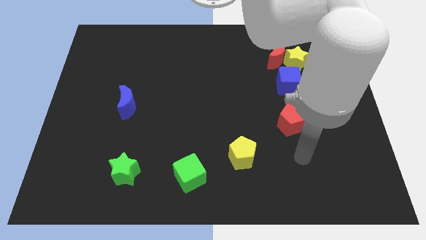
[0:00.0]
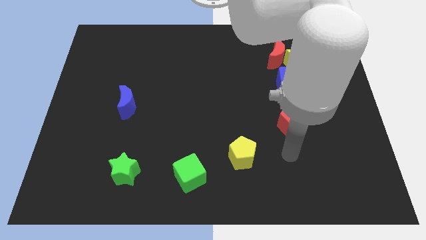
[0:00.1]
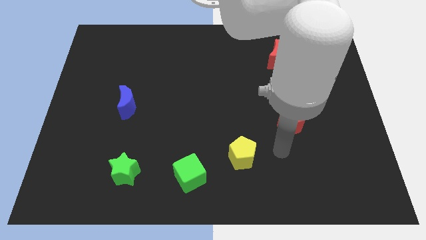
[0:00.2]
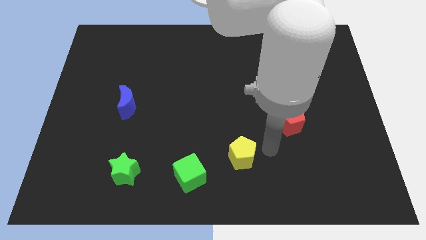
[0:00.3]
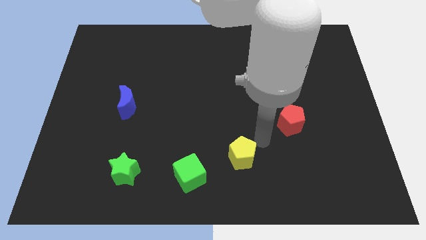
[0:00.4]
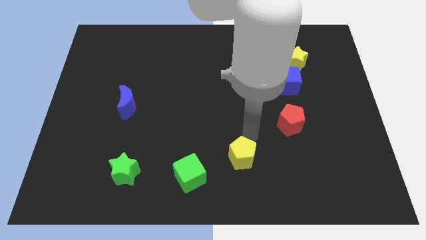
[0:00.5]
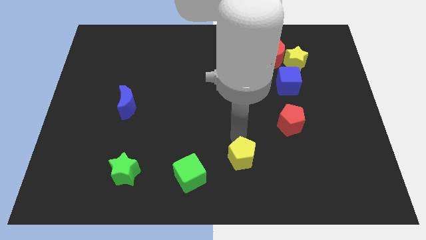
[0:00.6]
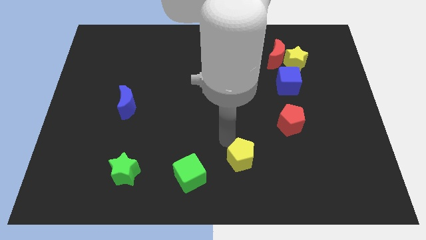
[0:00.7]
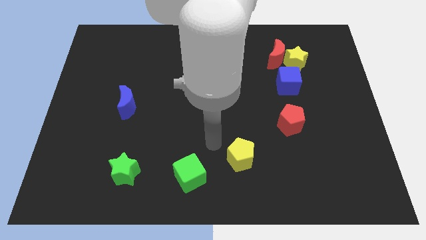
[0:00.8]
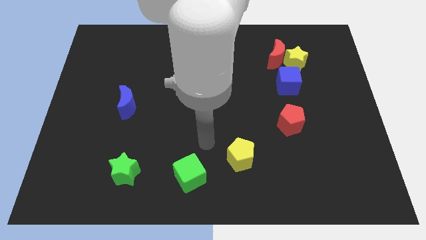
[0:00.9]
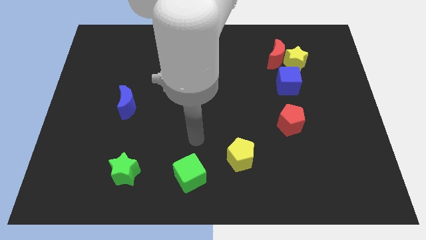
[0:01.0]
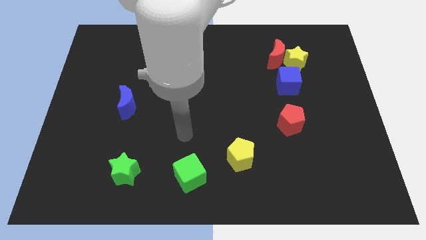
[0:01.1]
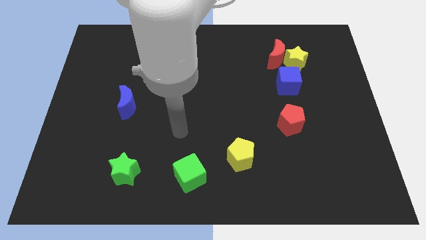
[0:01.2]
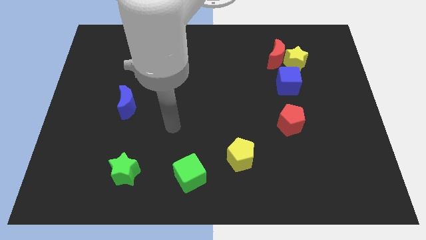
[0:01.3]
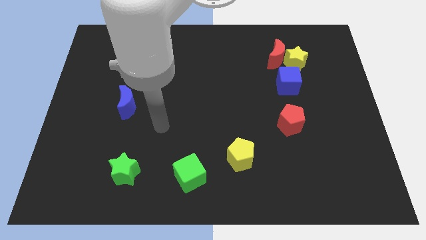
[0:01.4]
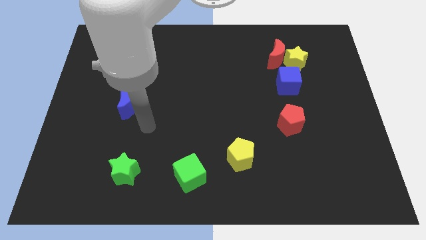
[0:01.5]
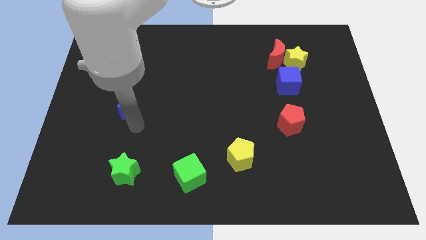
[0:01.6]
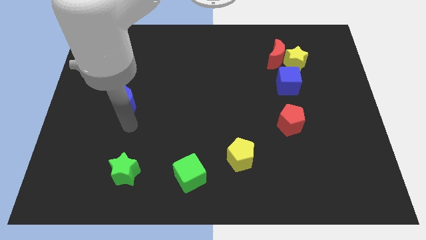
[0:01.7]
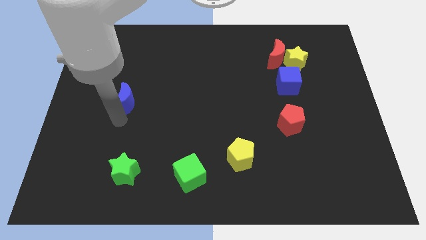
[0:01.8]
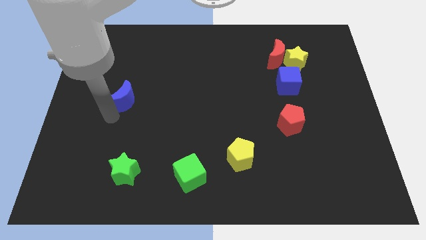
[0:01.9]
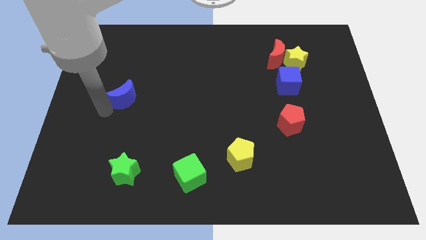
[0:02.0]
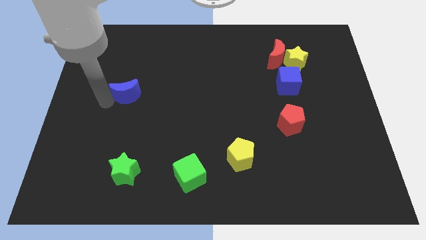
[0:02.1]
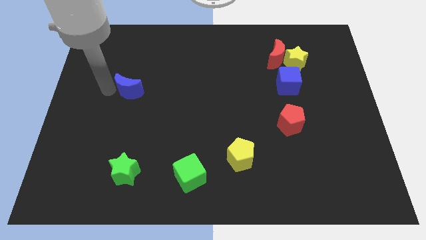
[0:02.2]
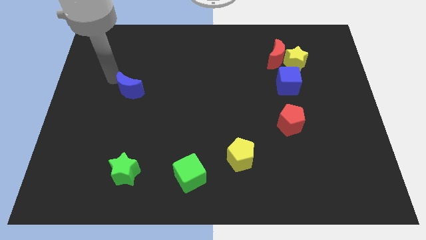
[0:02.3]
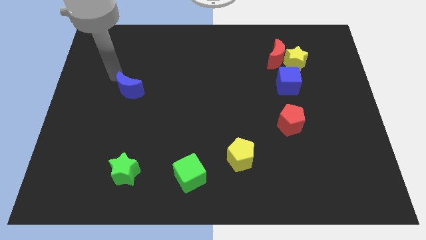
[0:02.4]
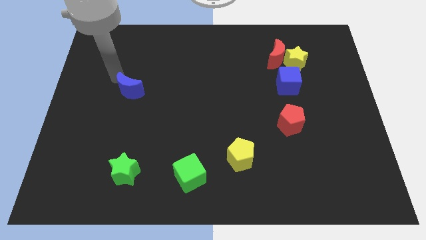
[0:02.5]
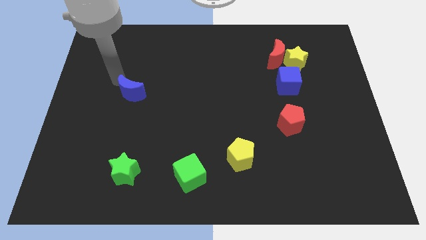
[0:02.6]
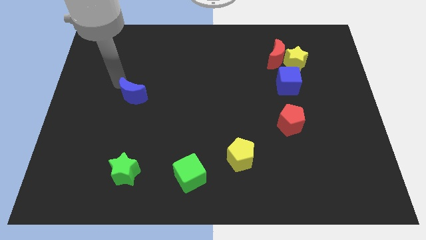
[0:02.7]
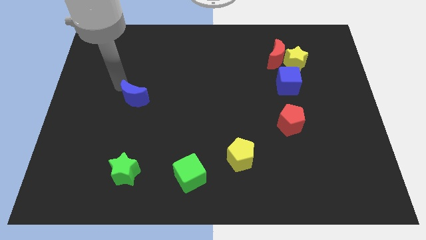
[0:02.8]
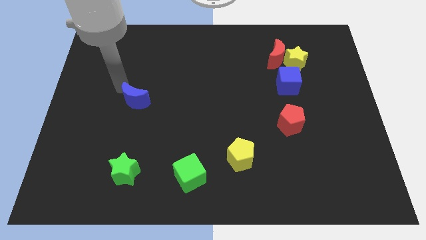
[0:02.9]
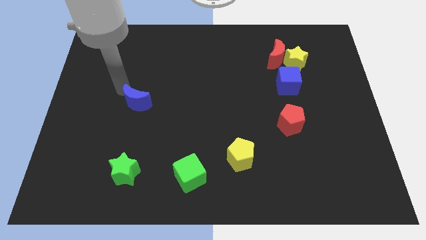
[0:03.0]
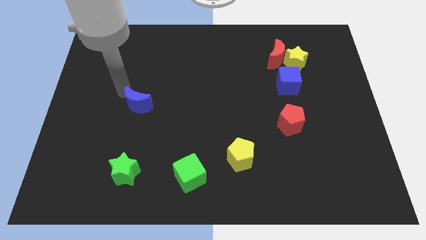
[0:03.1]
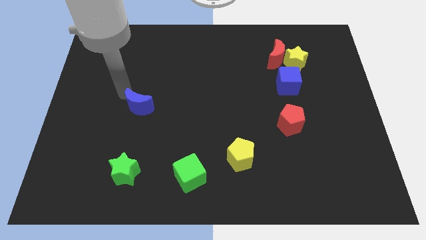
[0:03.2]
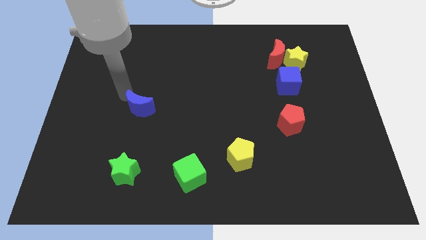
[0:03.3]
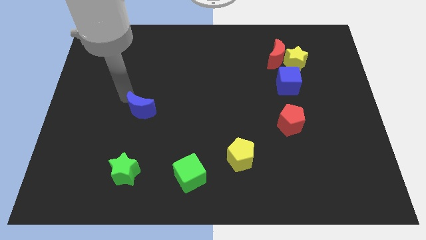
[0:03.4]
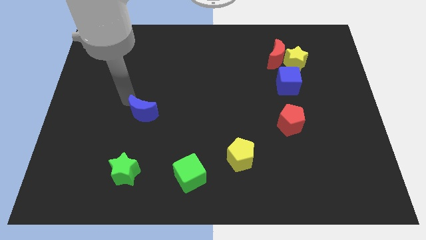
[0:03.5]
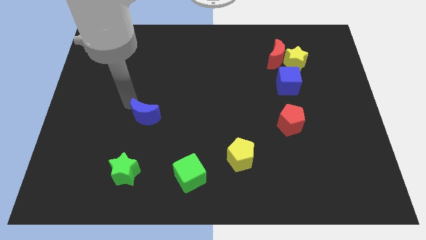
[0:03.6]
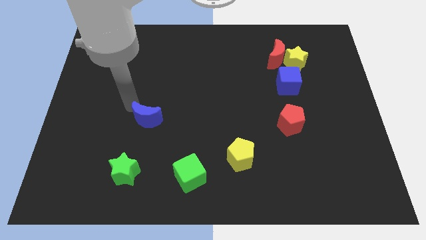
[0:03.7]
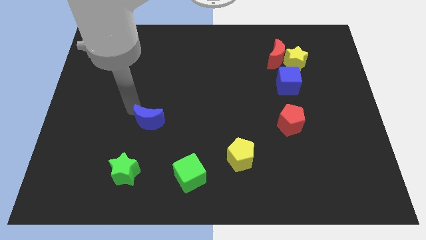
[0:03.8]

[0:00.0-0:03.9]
move the blue moon a little down and then right

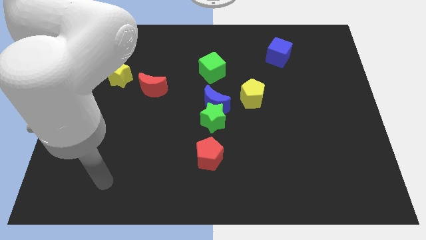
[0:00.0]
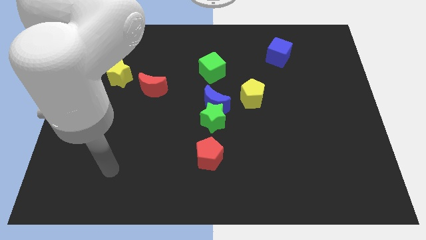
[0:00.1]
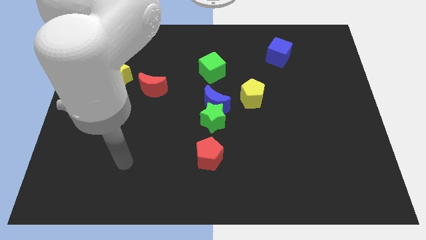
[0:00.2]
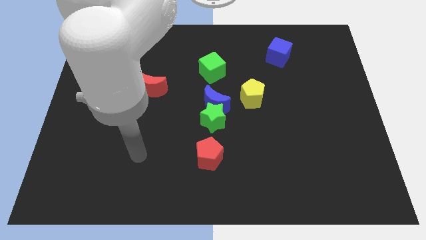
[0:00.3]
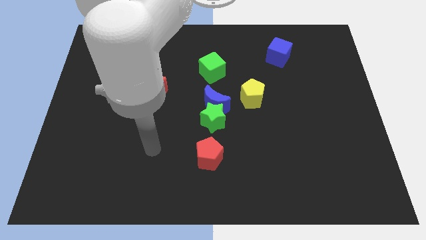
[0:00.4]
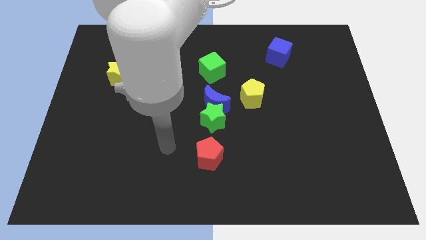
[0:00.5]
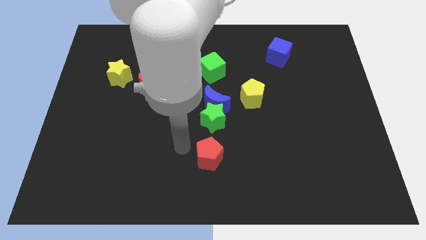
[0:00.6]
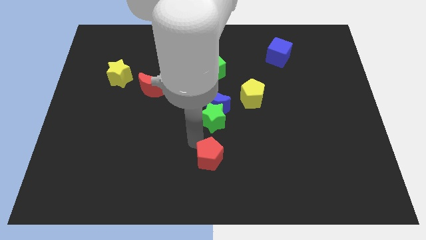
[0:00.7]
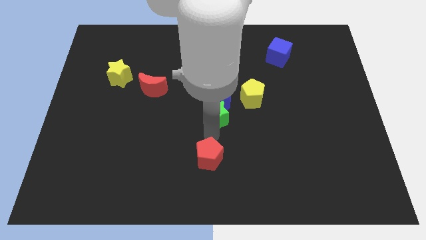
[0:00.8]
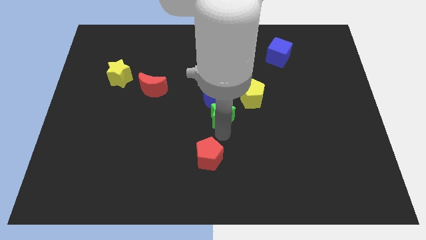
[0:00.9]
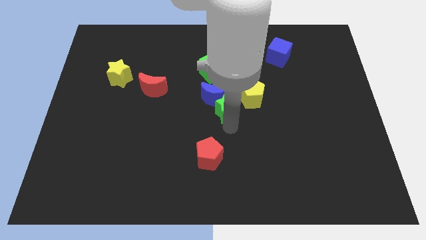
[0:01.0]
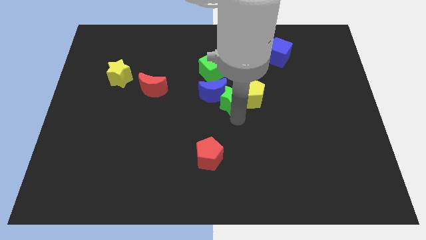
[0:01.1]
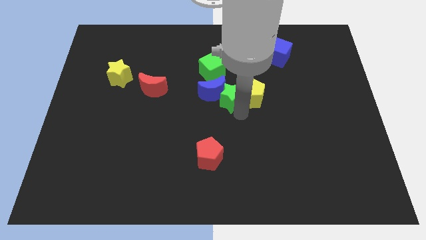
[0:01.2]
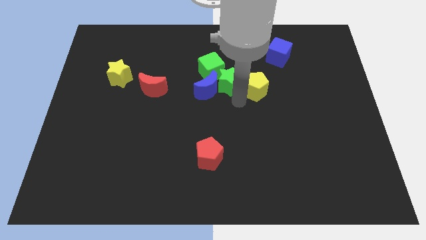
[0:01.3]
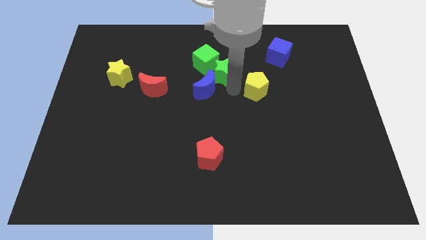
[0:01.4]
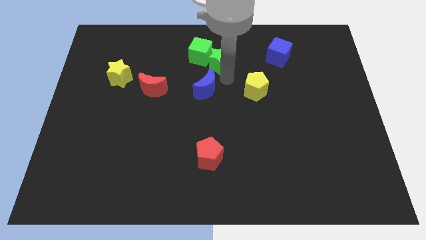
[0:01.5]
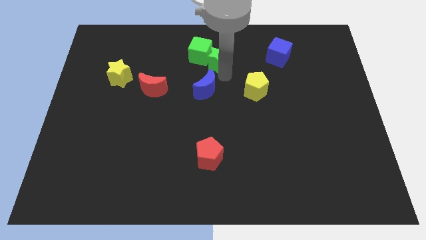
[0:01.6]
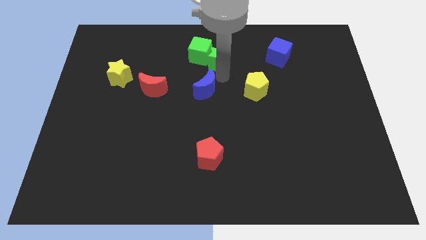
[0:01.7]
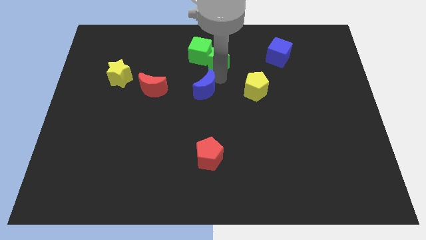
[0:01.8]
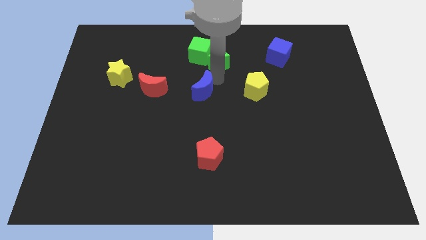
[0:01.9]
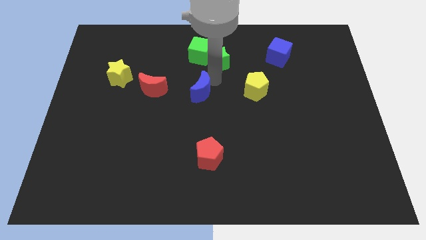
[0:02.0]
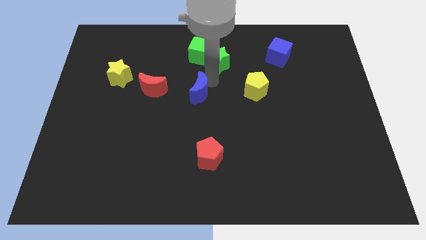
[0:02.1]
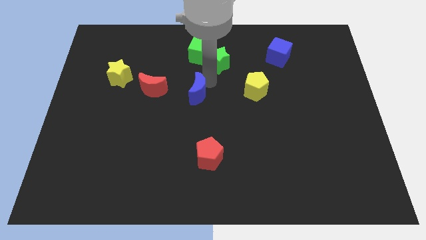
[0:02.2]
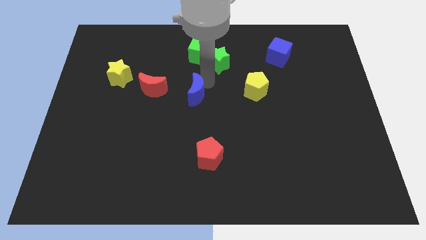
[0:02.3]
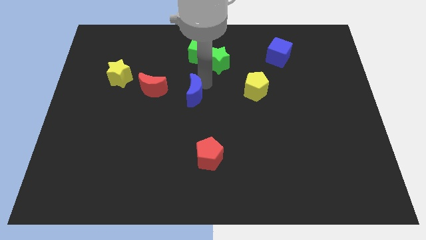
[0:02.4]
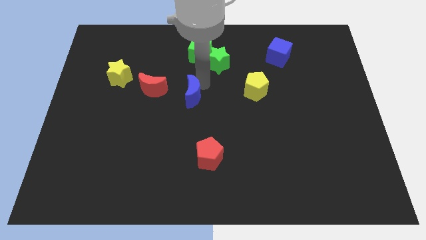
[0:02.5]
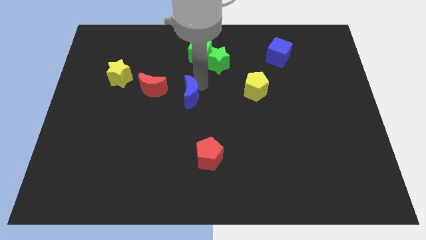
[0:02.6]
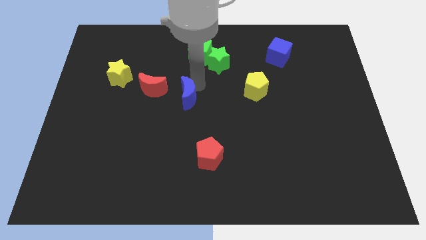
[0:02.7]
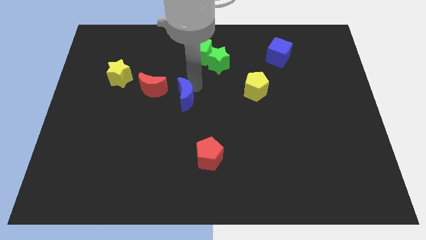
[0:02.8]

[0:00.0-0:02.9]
slightly push the blue moon left

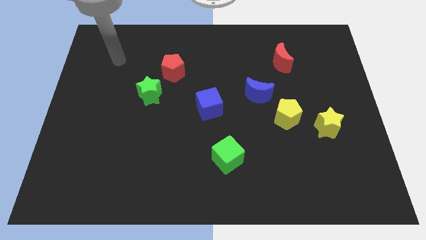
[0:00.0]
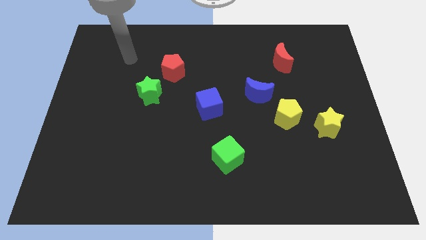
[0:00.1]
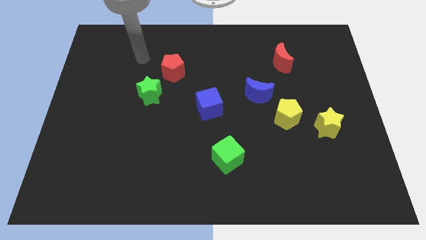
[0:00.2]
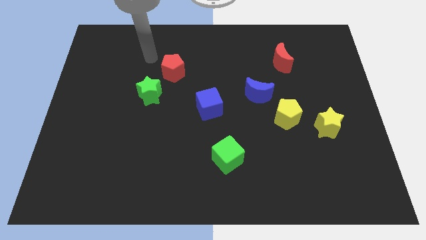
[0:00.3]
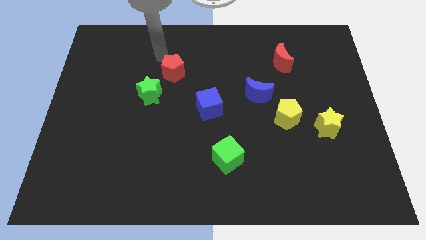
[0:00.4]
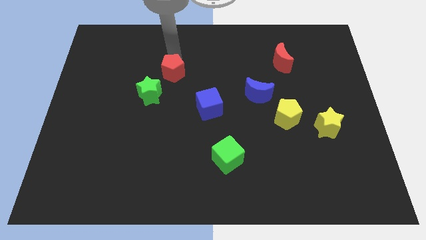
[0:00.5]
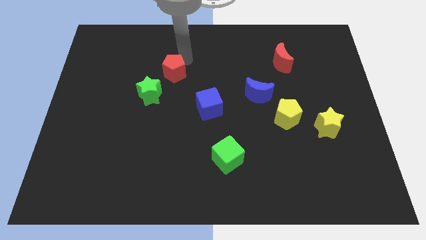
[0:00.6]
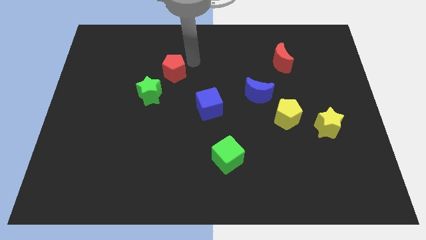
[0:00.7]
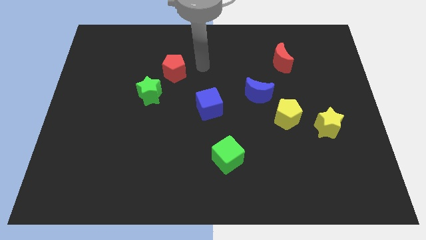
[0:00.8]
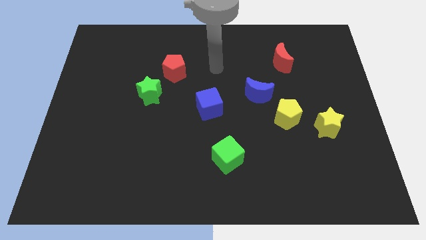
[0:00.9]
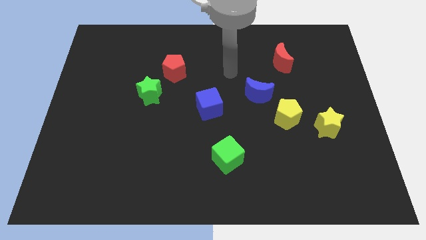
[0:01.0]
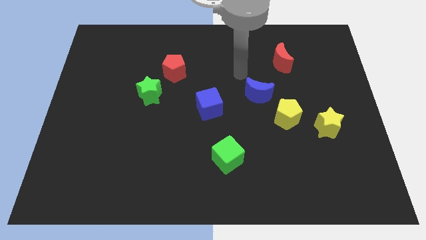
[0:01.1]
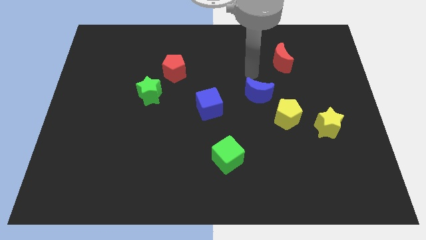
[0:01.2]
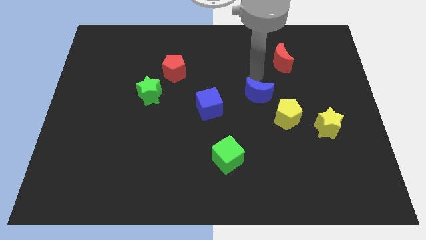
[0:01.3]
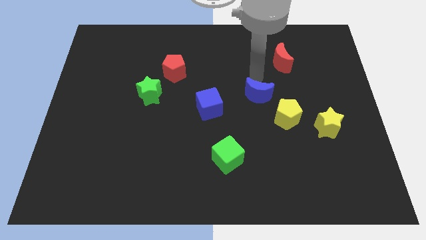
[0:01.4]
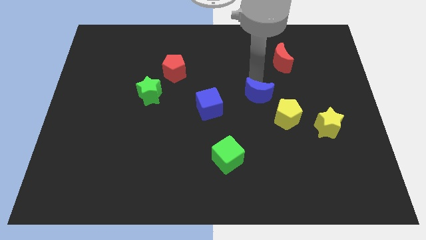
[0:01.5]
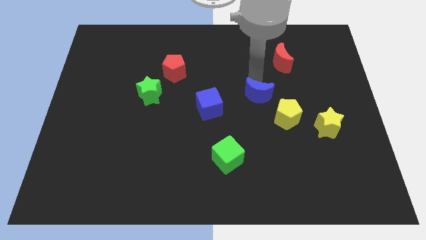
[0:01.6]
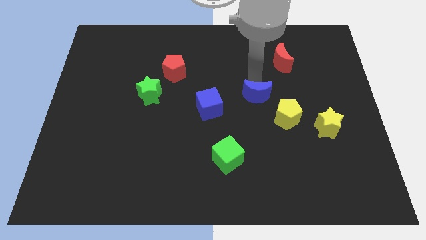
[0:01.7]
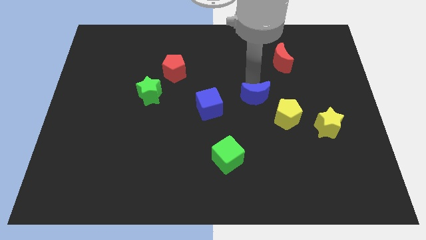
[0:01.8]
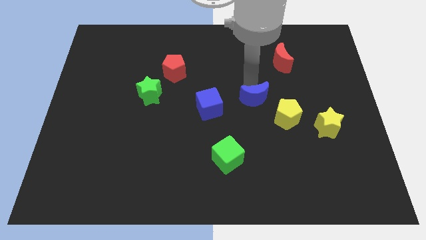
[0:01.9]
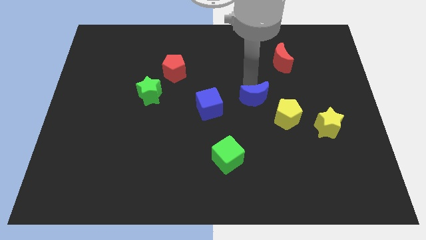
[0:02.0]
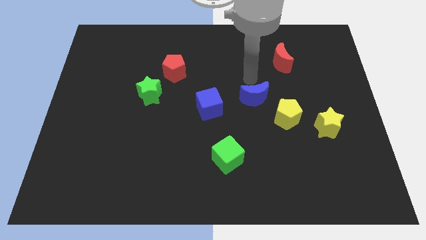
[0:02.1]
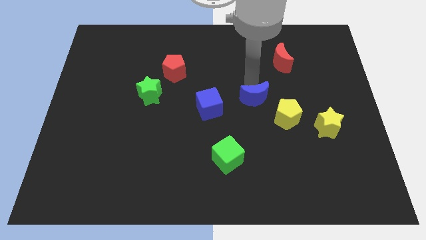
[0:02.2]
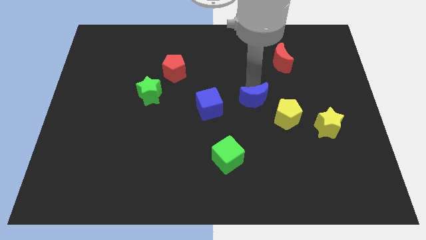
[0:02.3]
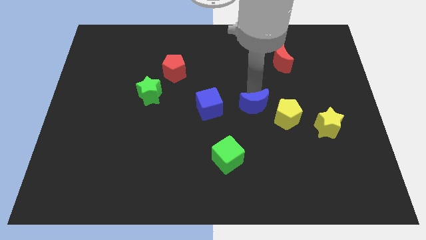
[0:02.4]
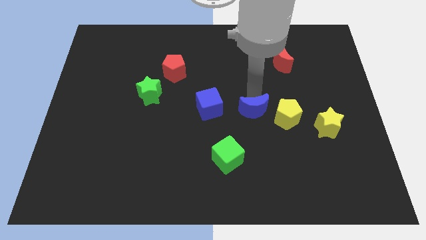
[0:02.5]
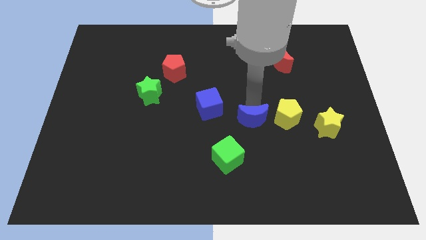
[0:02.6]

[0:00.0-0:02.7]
slightly move the blue moon downwards
